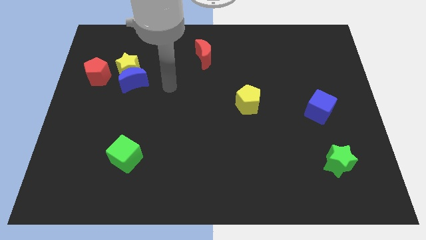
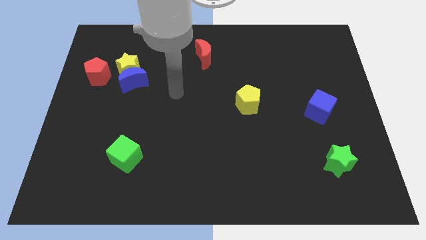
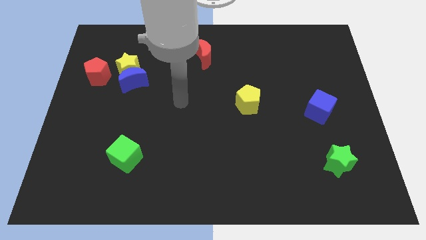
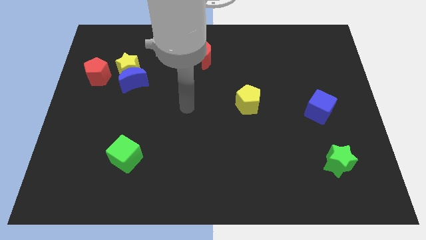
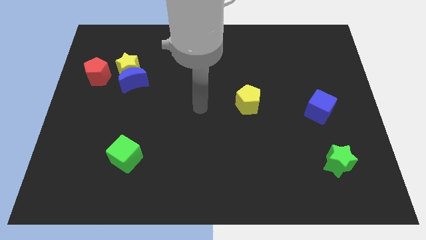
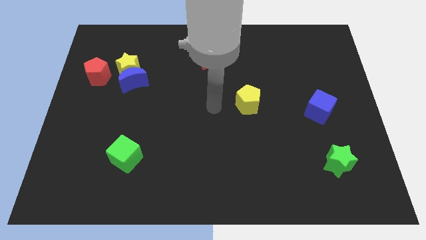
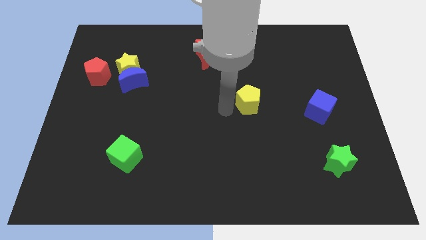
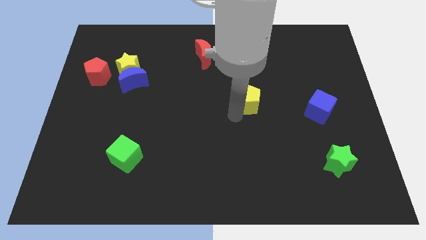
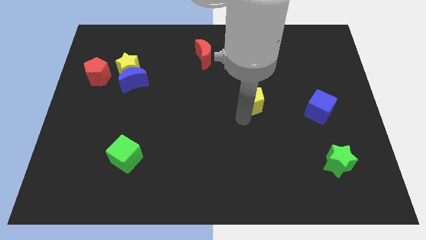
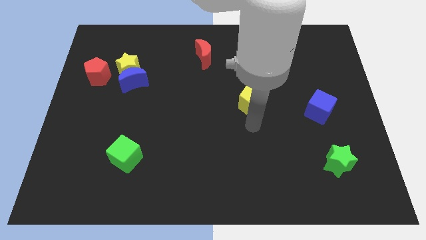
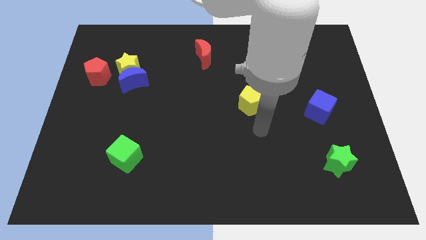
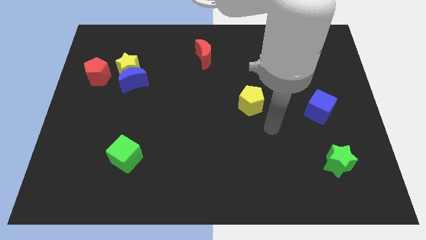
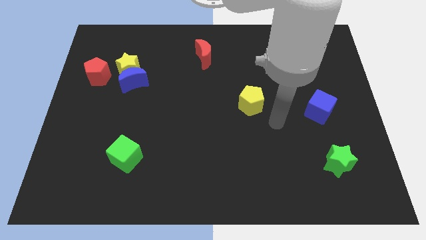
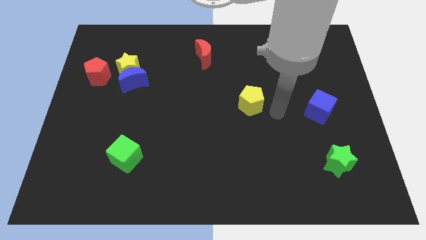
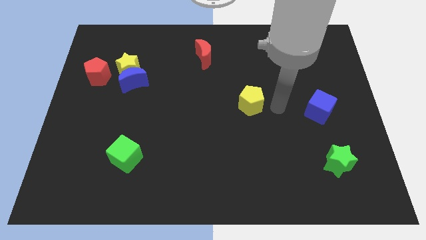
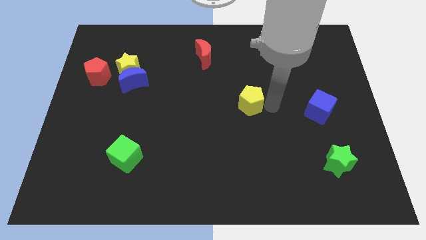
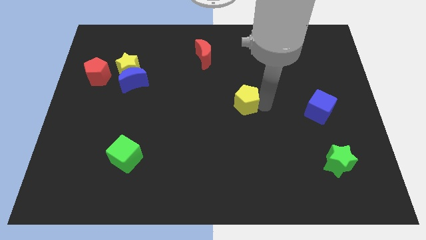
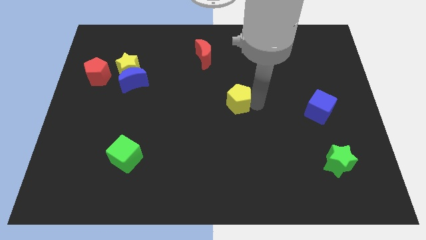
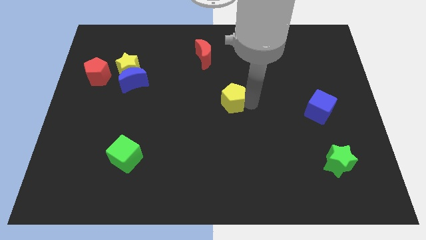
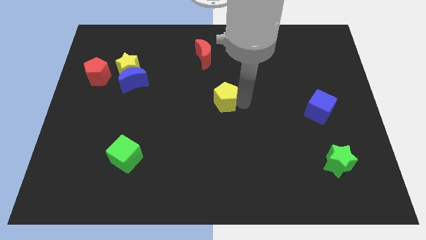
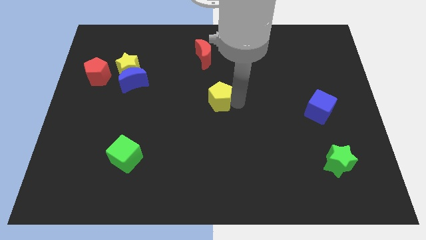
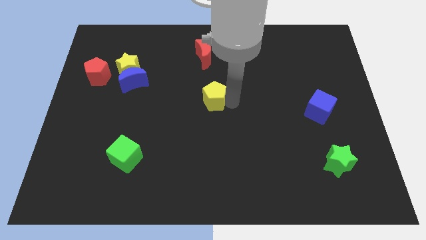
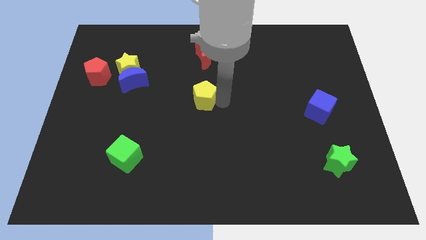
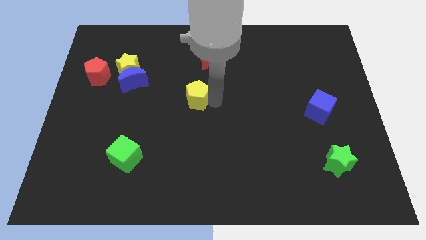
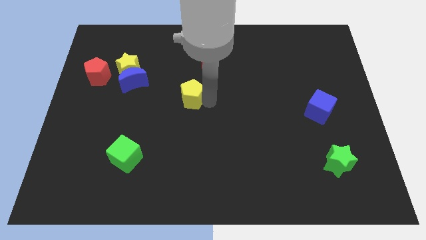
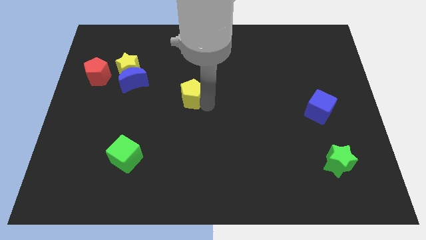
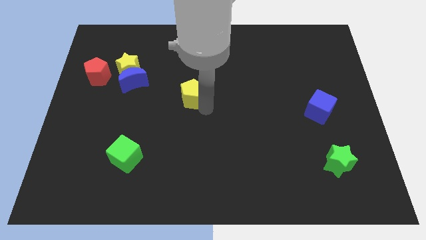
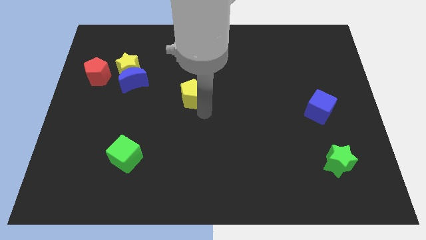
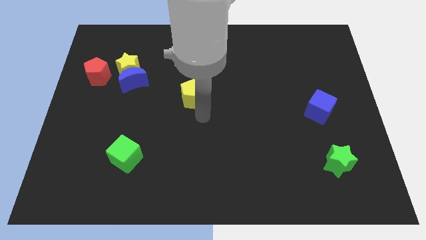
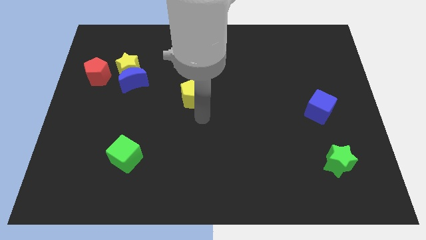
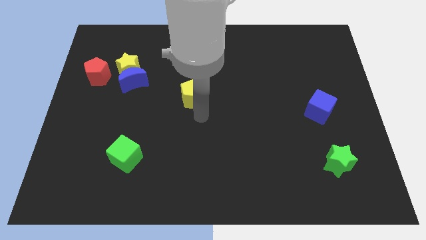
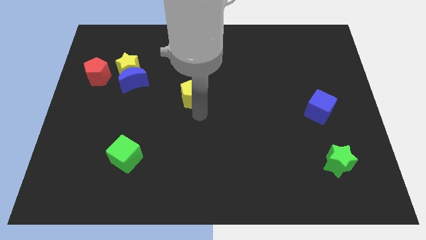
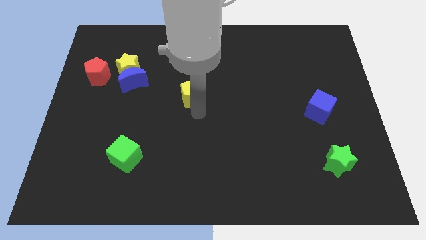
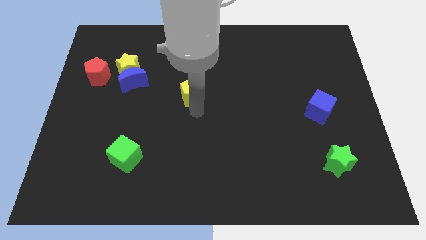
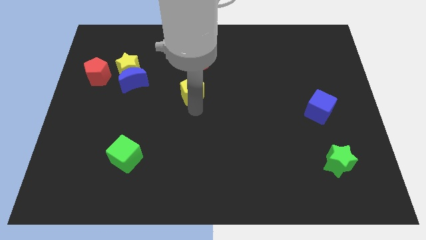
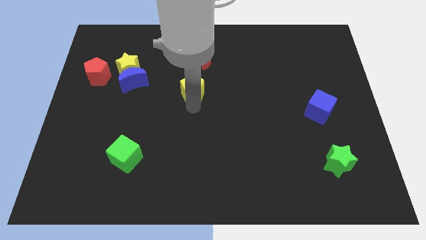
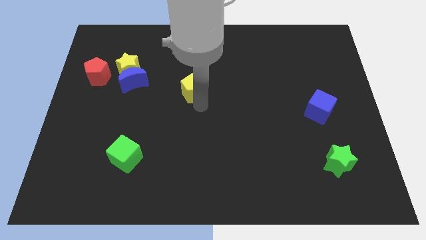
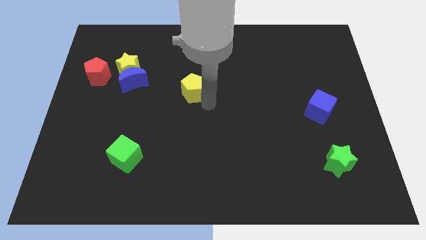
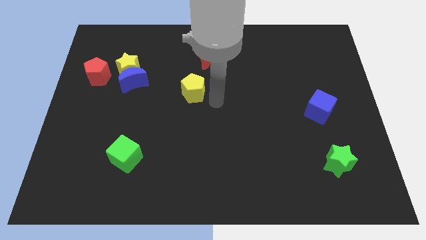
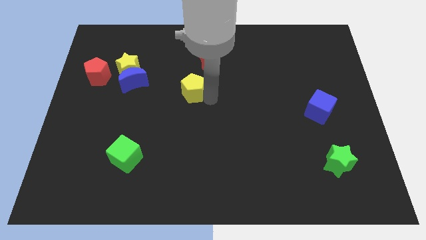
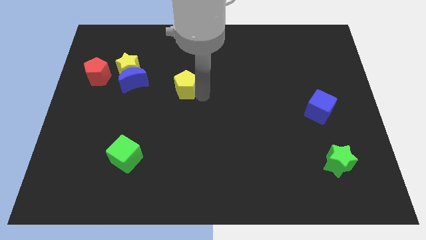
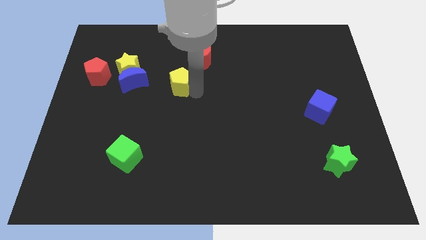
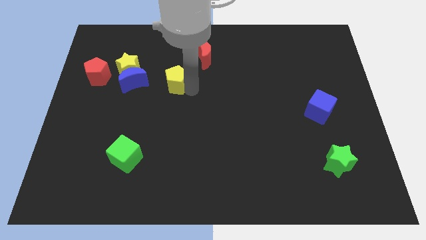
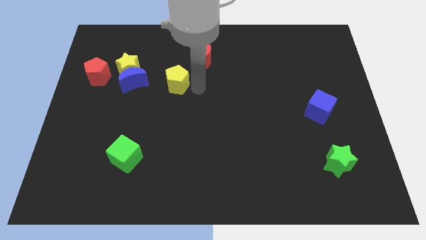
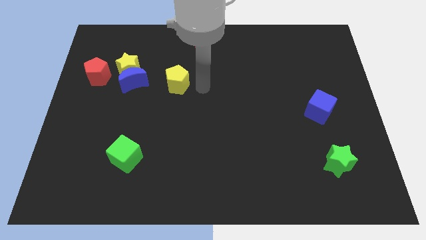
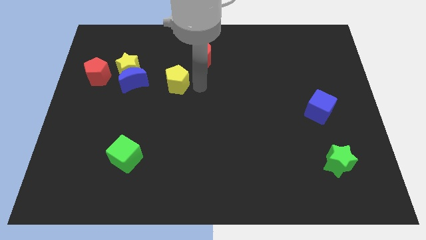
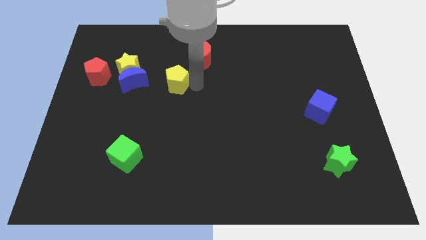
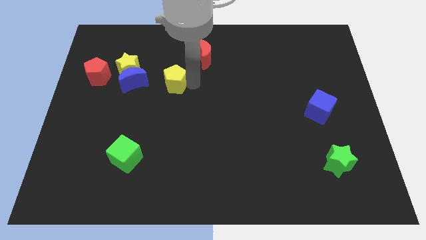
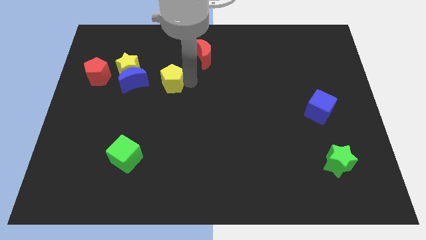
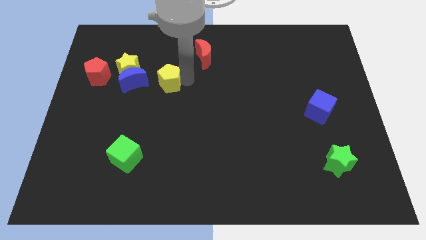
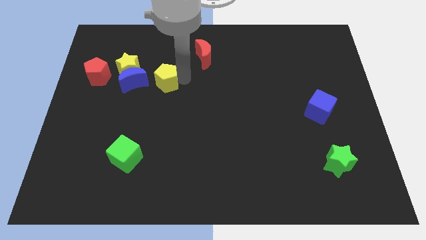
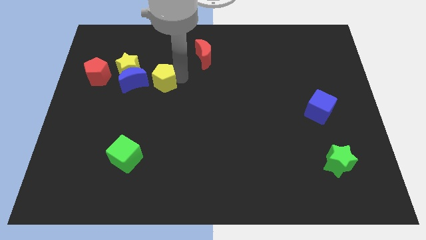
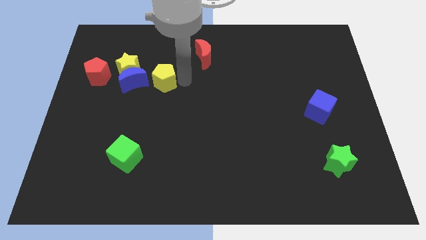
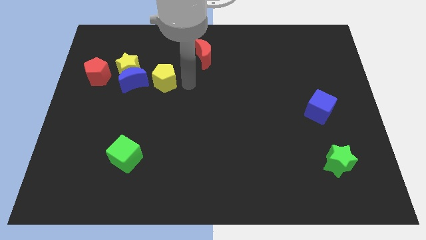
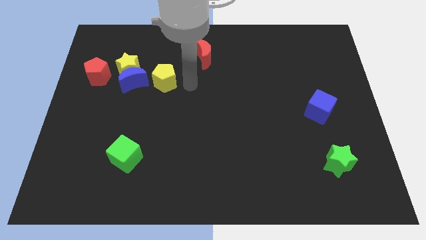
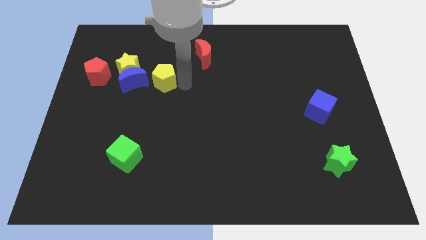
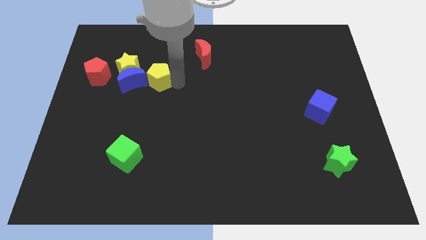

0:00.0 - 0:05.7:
push the yellow pentagon just right of the red pentagon

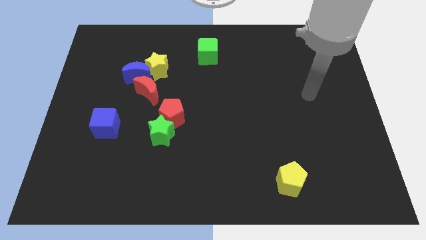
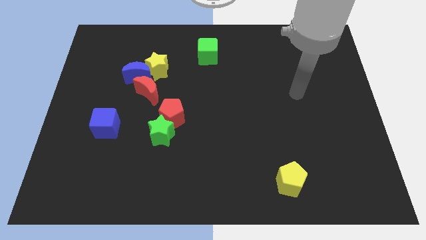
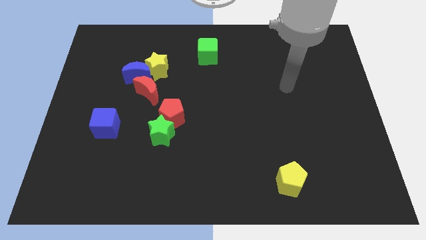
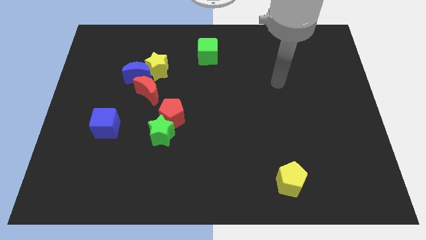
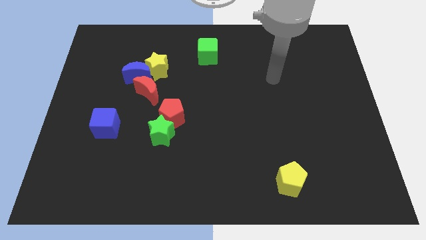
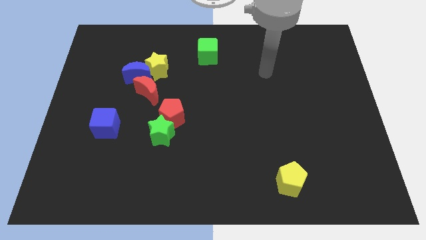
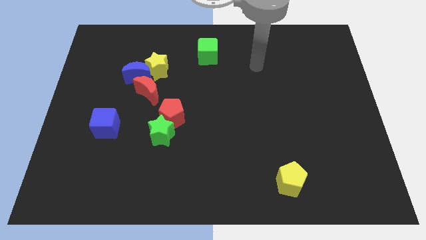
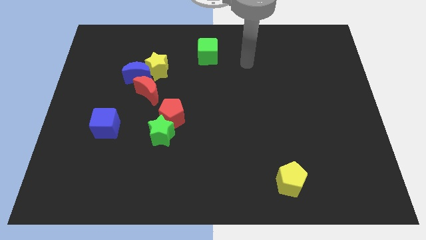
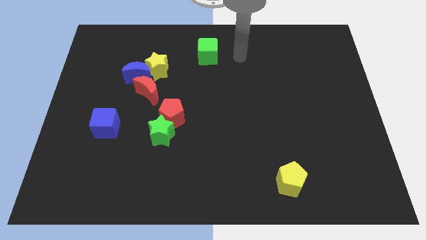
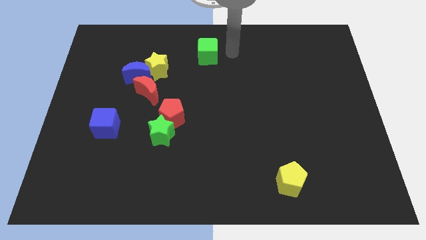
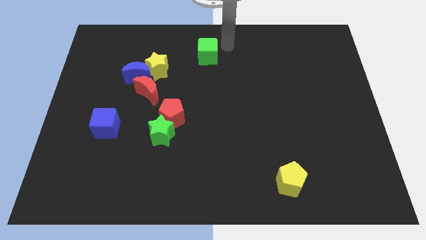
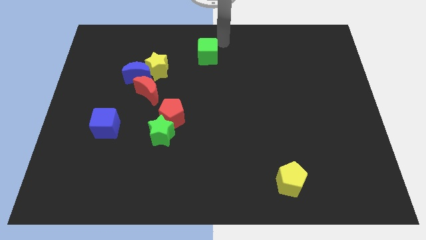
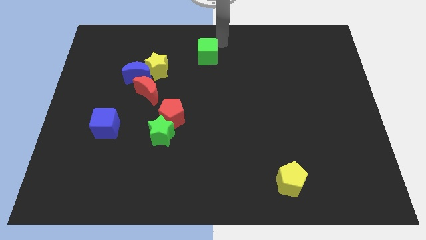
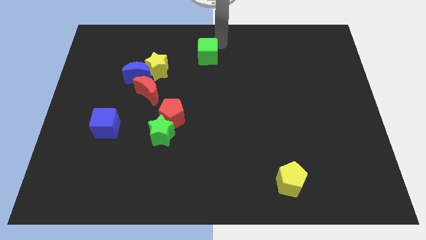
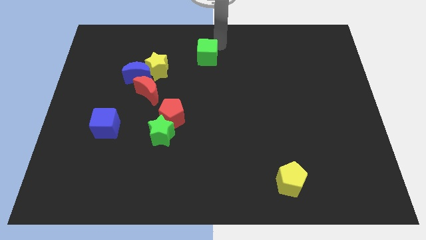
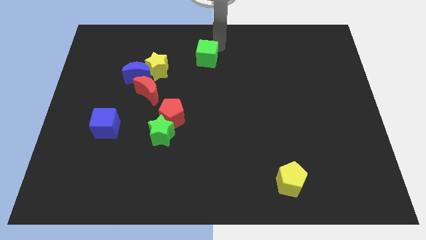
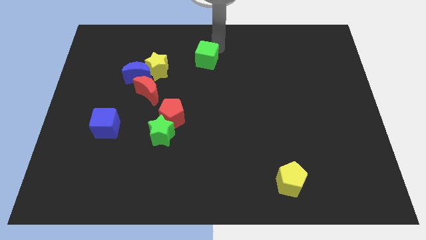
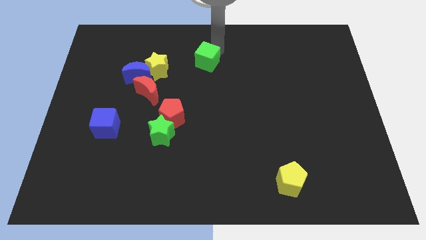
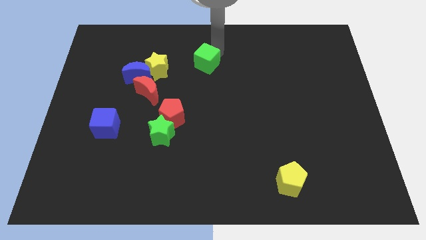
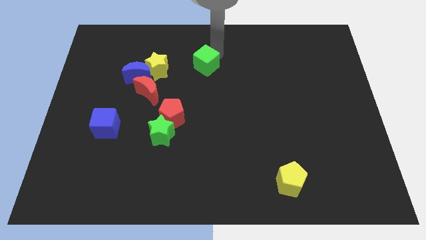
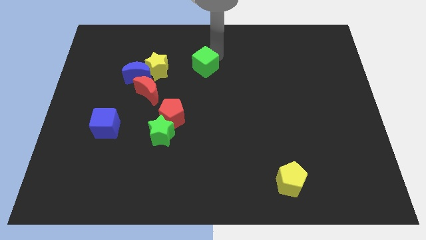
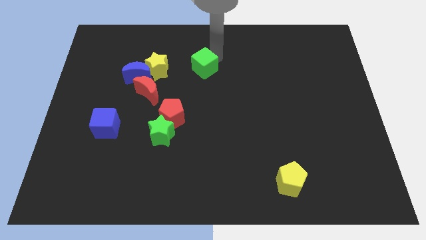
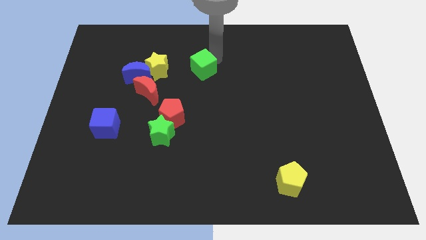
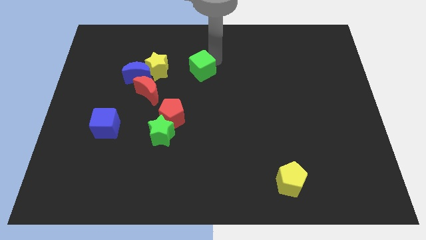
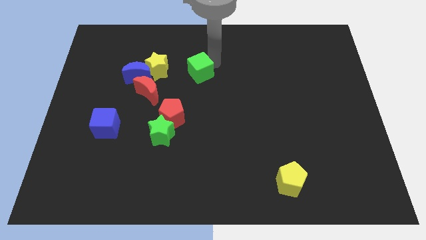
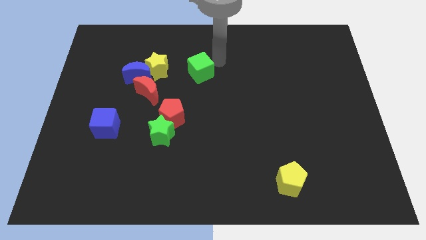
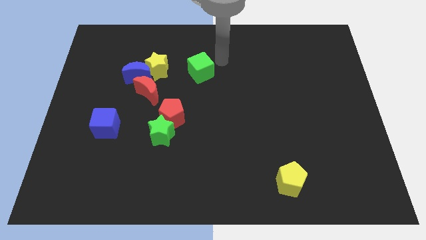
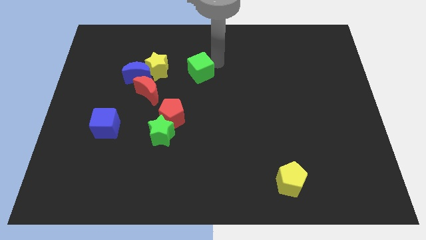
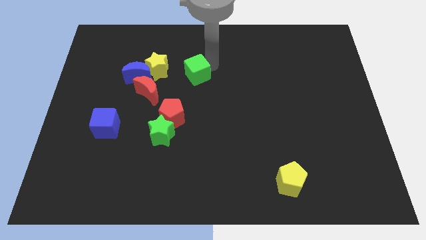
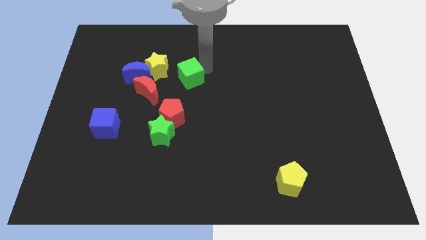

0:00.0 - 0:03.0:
slide the green cube to the top of the red pentagon
